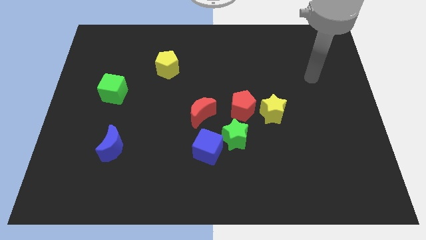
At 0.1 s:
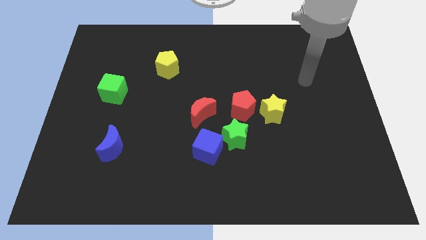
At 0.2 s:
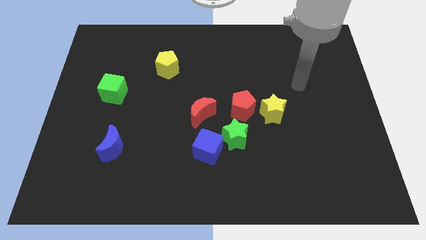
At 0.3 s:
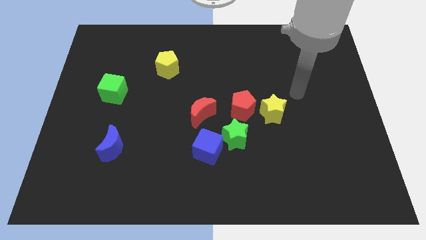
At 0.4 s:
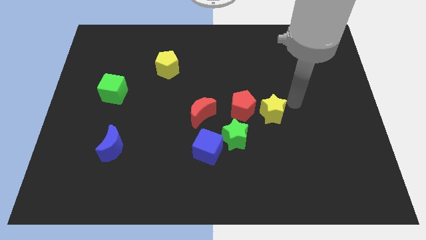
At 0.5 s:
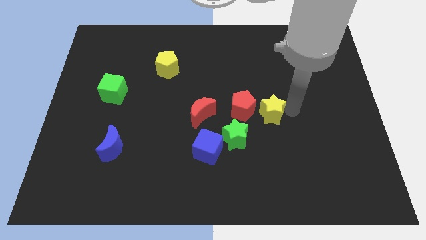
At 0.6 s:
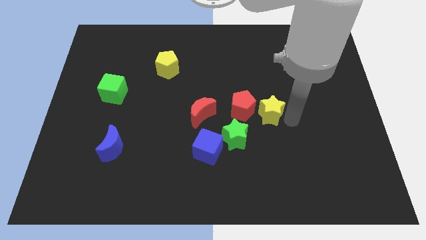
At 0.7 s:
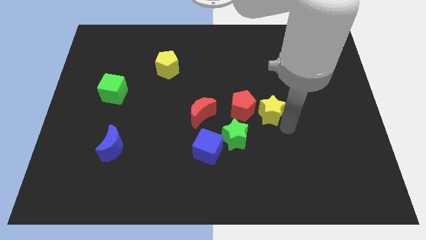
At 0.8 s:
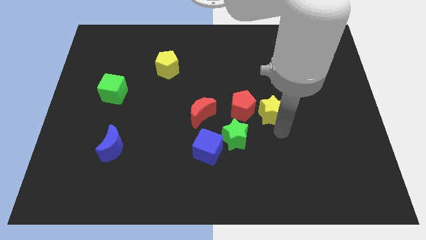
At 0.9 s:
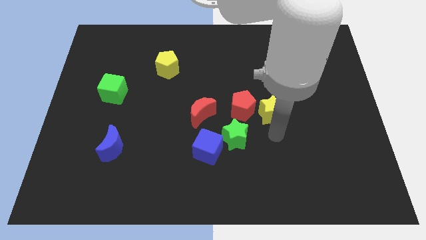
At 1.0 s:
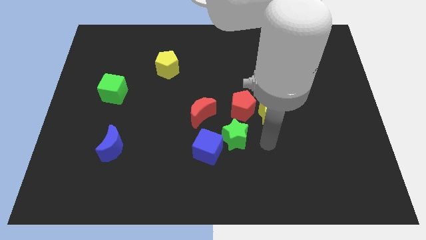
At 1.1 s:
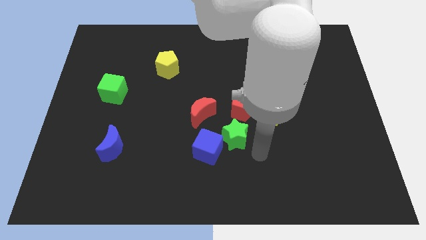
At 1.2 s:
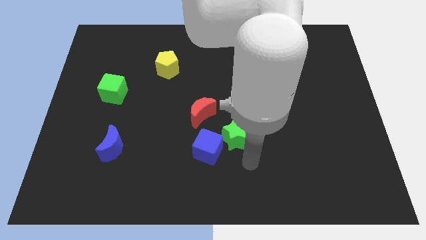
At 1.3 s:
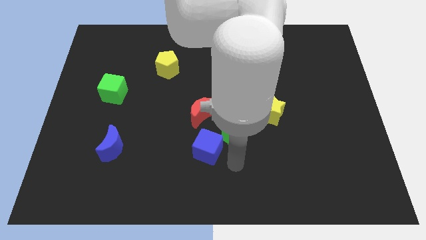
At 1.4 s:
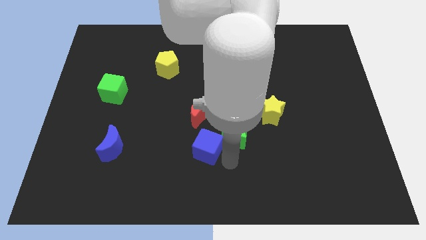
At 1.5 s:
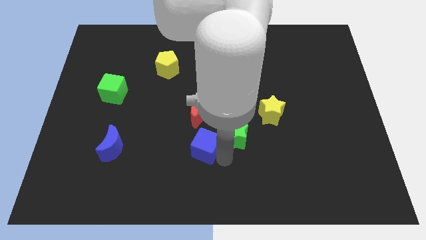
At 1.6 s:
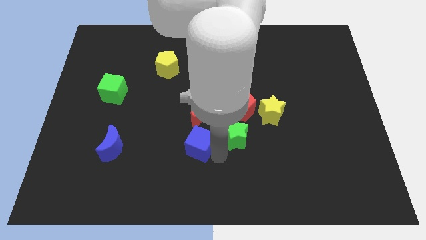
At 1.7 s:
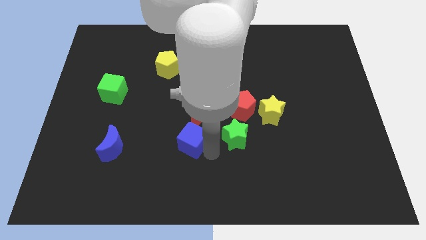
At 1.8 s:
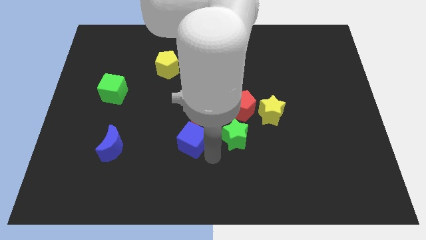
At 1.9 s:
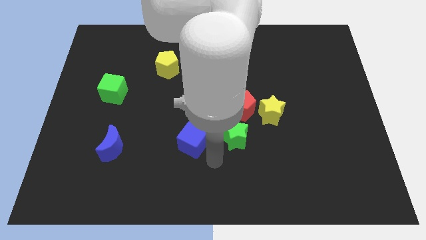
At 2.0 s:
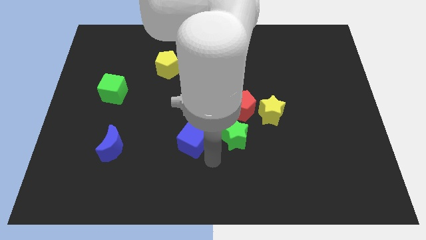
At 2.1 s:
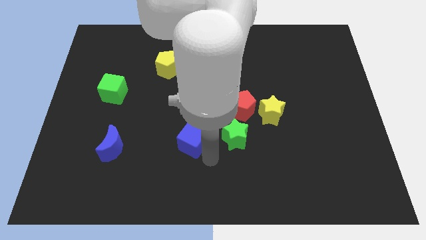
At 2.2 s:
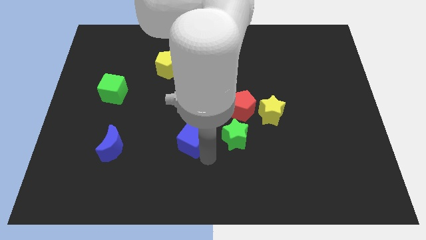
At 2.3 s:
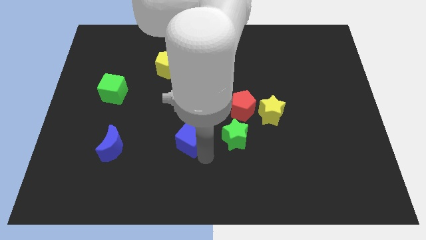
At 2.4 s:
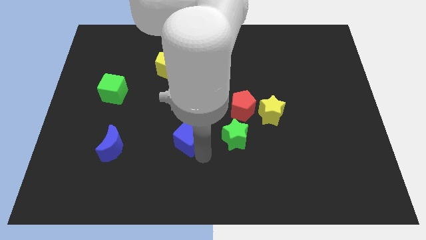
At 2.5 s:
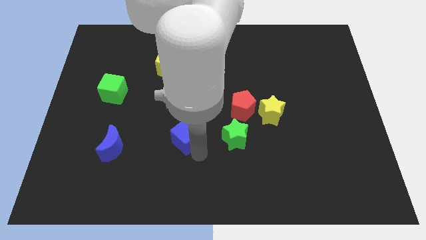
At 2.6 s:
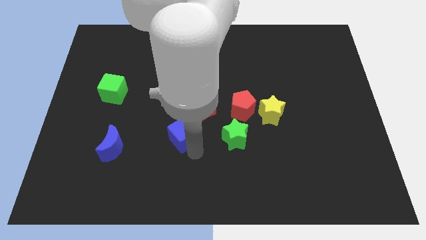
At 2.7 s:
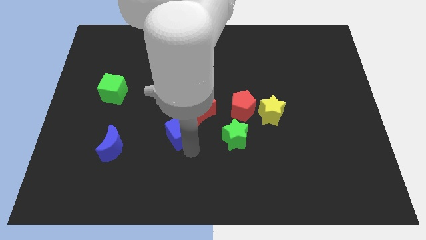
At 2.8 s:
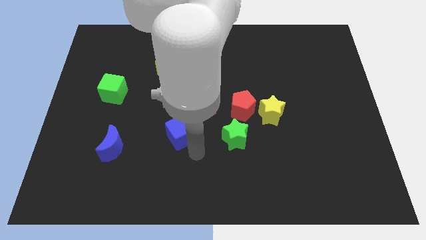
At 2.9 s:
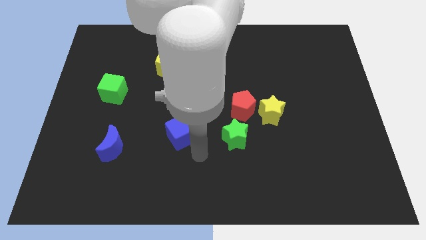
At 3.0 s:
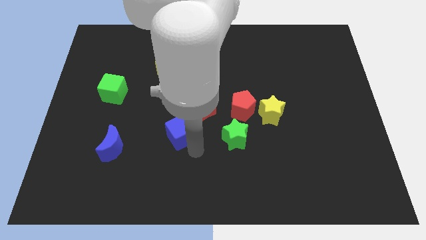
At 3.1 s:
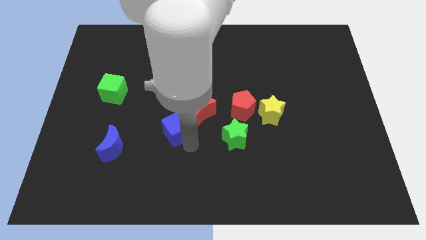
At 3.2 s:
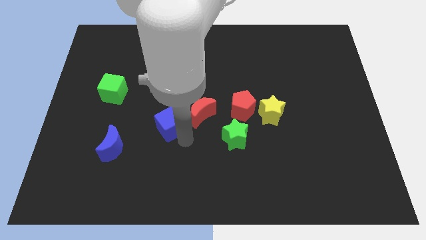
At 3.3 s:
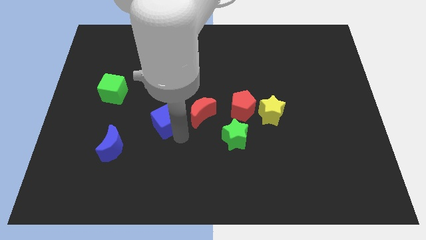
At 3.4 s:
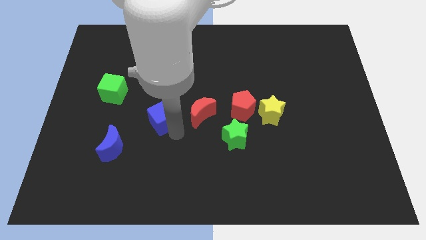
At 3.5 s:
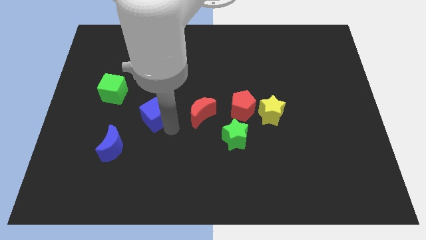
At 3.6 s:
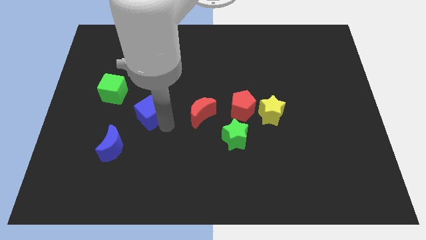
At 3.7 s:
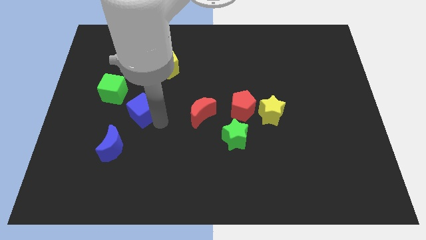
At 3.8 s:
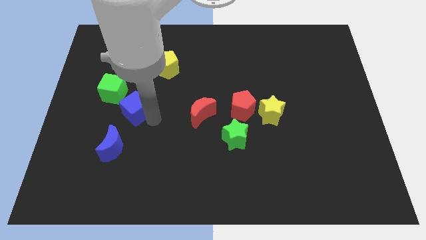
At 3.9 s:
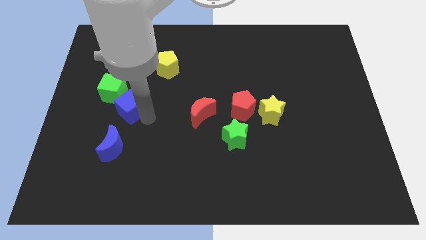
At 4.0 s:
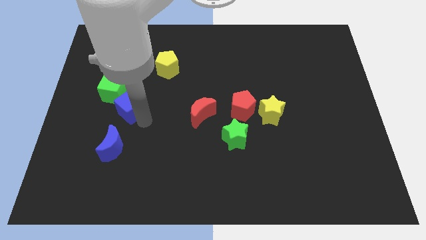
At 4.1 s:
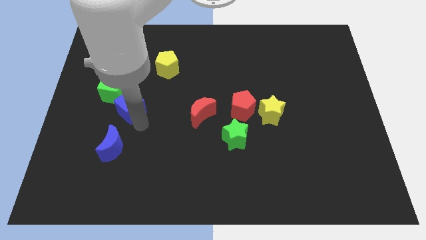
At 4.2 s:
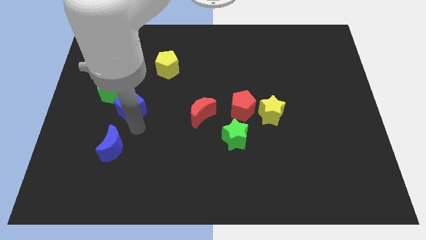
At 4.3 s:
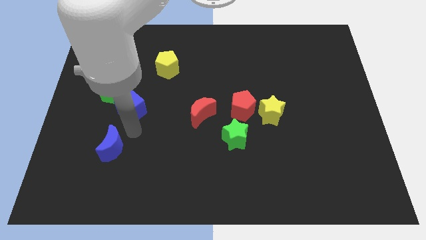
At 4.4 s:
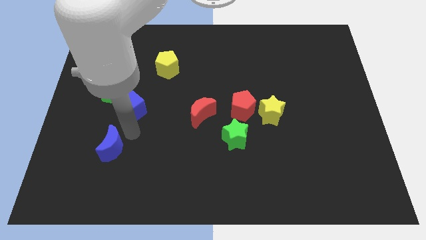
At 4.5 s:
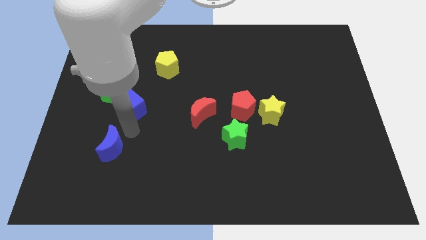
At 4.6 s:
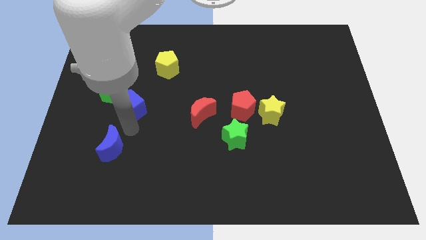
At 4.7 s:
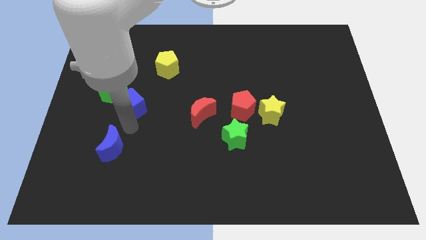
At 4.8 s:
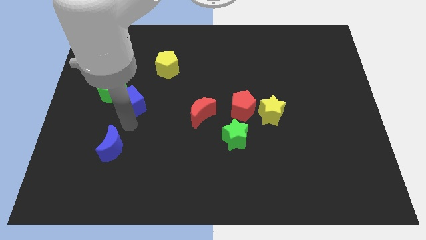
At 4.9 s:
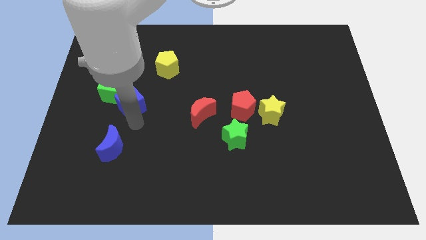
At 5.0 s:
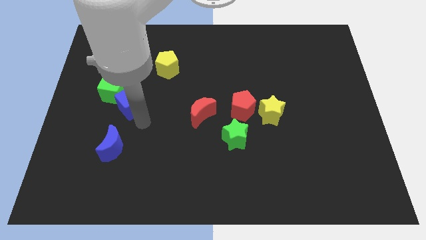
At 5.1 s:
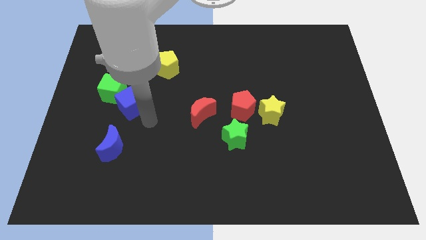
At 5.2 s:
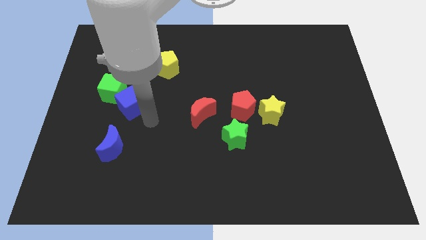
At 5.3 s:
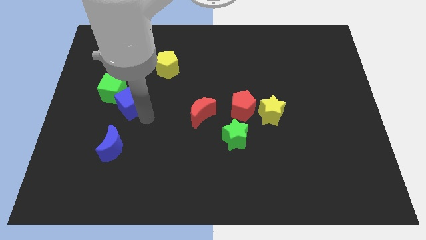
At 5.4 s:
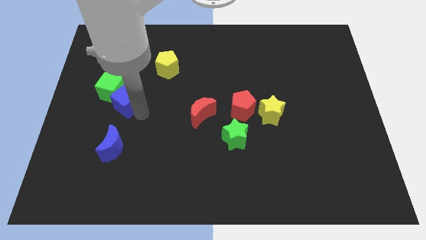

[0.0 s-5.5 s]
put the blue cube close to the green cube

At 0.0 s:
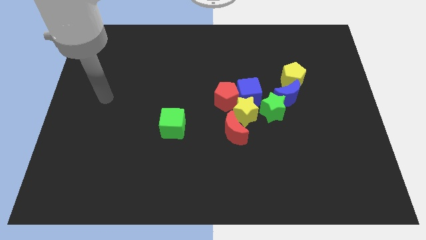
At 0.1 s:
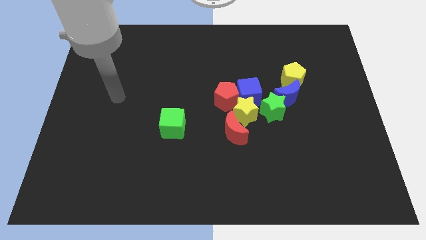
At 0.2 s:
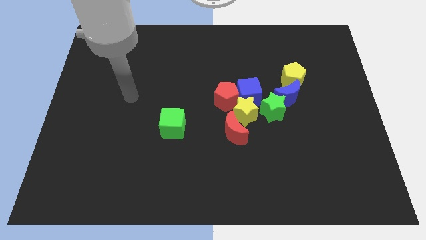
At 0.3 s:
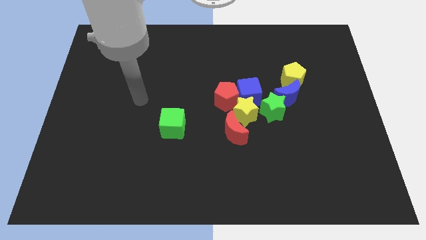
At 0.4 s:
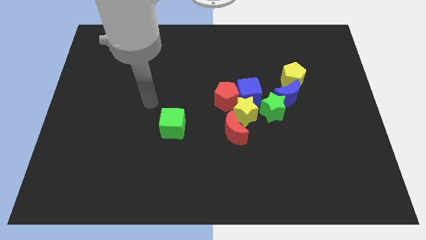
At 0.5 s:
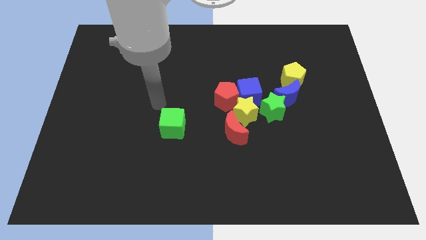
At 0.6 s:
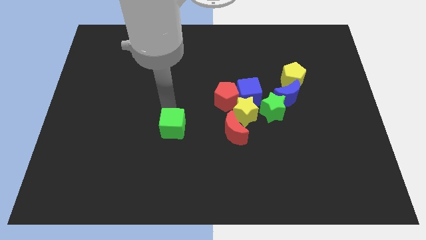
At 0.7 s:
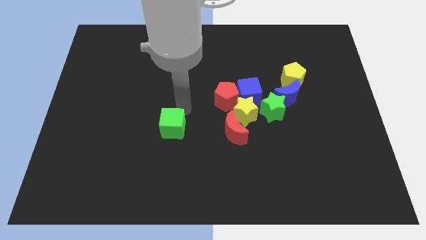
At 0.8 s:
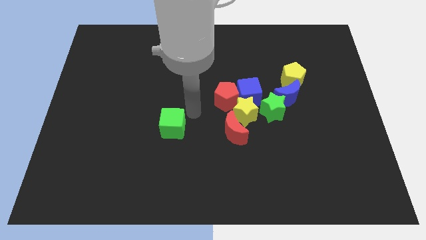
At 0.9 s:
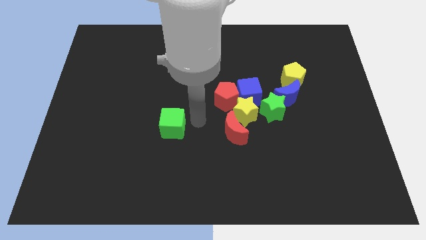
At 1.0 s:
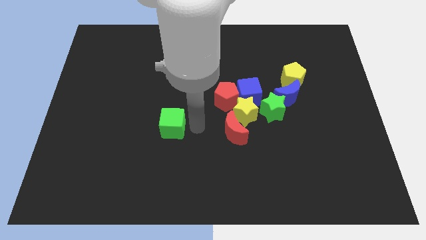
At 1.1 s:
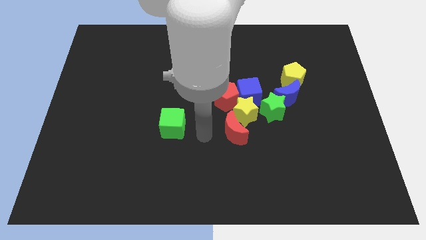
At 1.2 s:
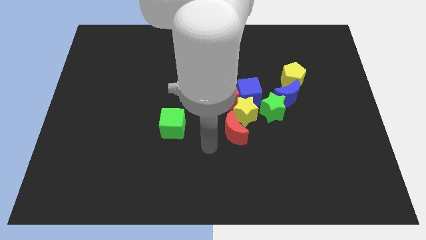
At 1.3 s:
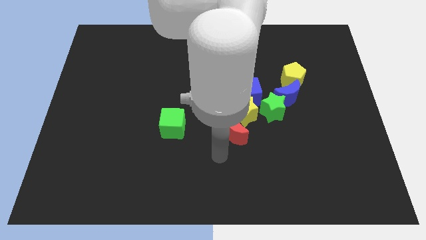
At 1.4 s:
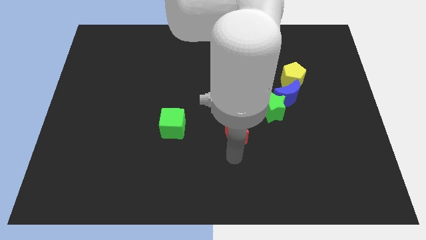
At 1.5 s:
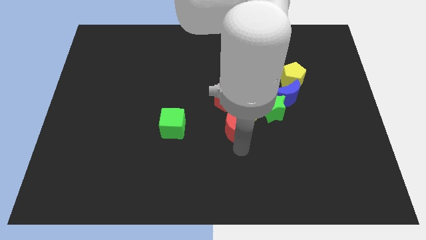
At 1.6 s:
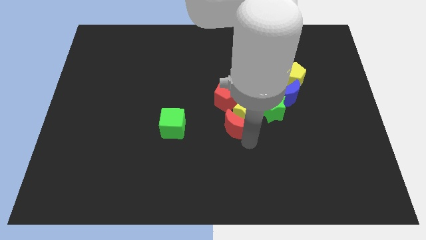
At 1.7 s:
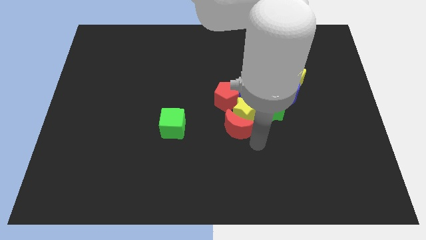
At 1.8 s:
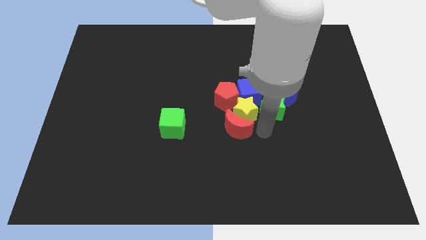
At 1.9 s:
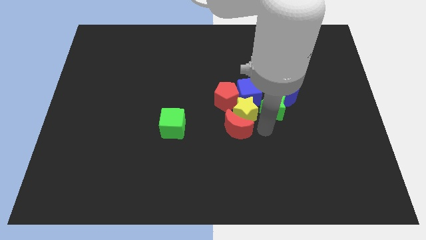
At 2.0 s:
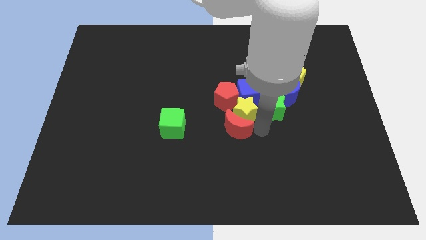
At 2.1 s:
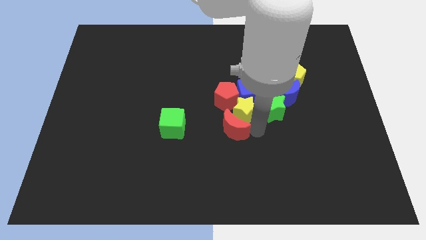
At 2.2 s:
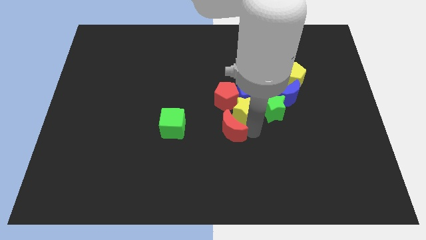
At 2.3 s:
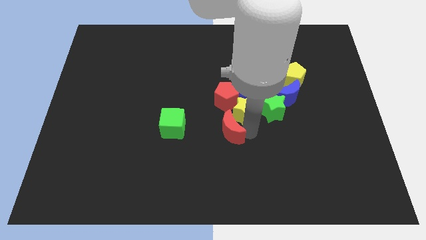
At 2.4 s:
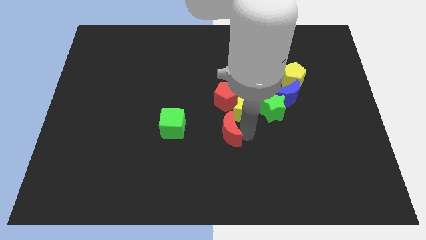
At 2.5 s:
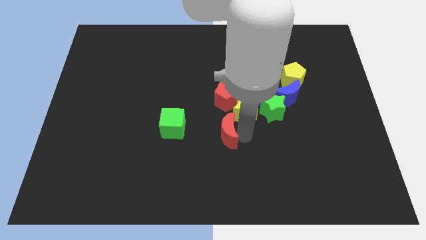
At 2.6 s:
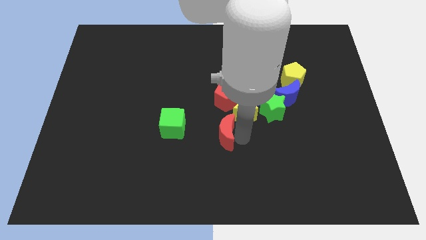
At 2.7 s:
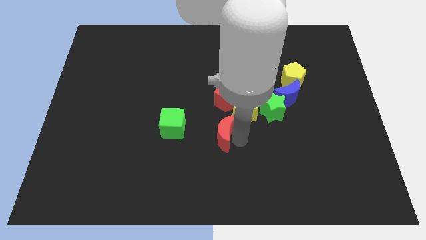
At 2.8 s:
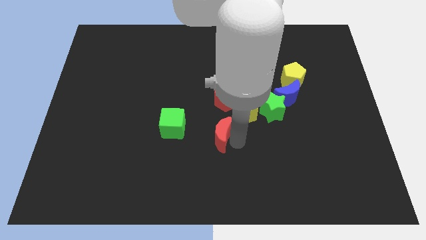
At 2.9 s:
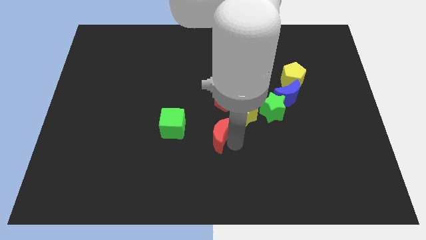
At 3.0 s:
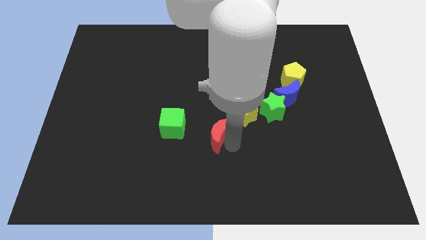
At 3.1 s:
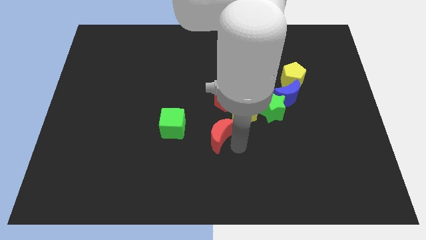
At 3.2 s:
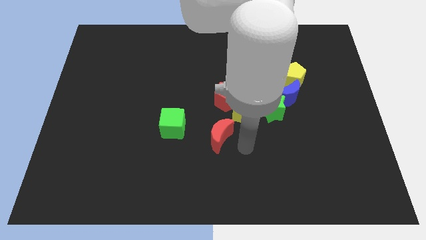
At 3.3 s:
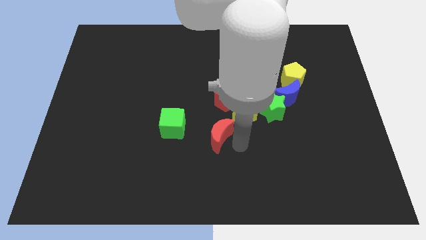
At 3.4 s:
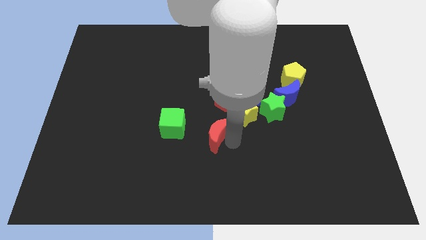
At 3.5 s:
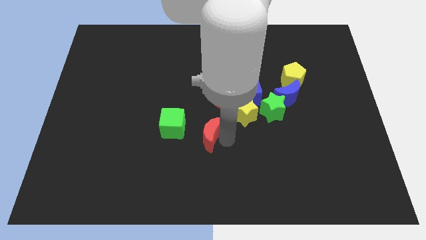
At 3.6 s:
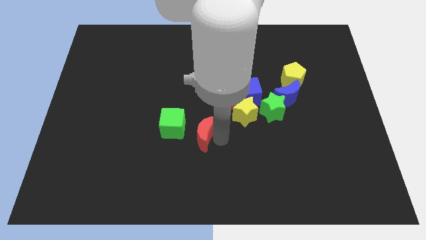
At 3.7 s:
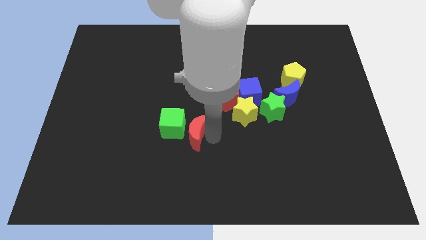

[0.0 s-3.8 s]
slide the red moon close to the green cube
